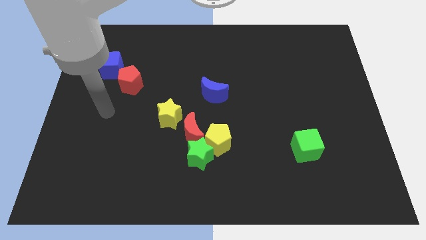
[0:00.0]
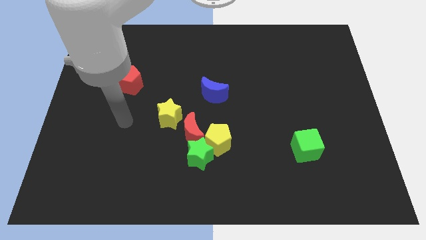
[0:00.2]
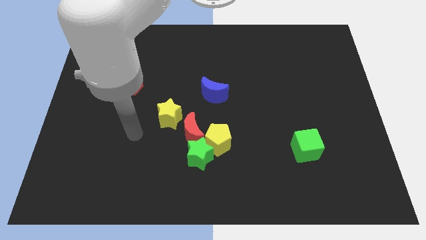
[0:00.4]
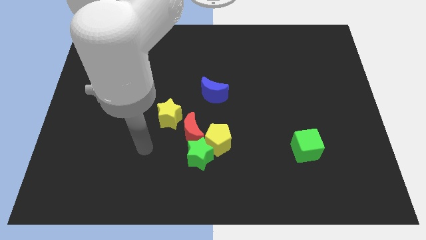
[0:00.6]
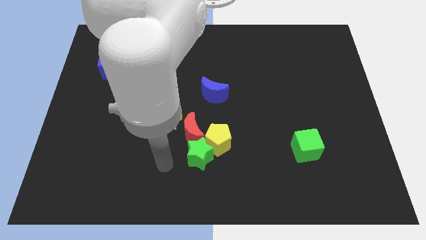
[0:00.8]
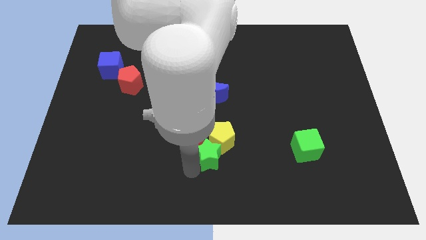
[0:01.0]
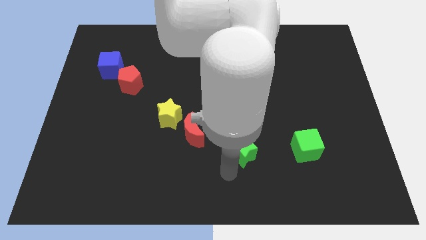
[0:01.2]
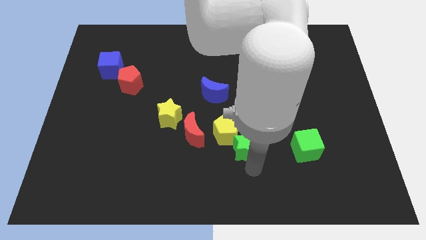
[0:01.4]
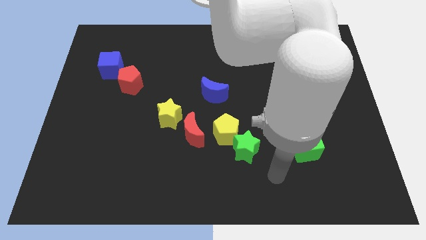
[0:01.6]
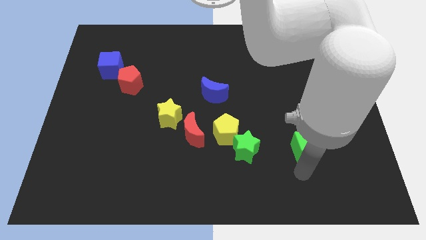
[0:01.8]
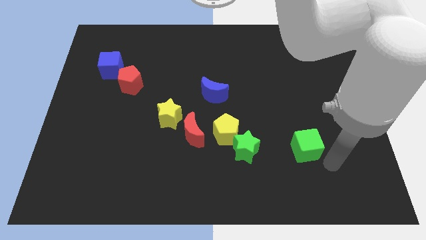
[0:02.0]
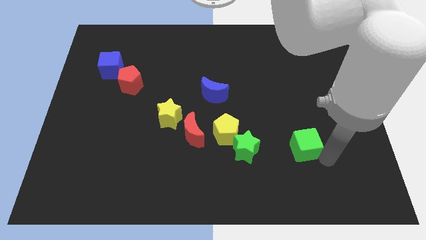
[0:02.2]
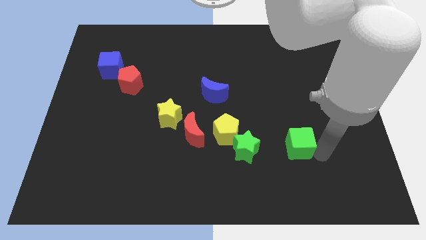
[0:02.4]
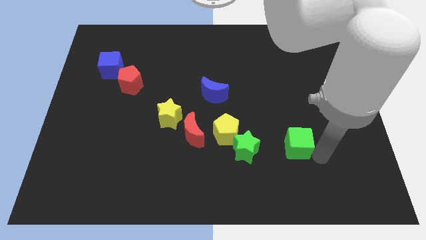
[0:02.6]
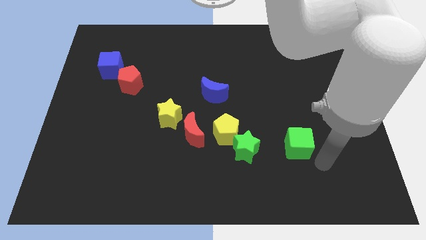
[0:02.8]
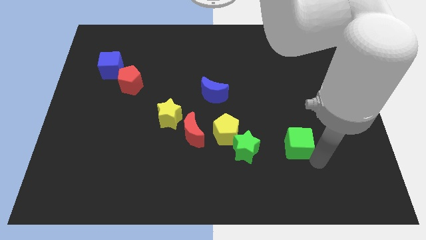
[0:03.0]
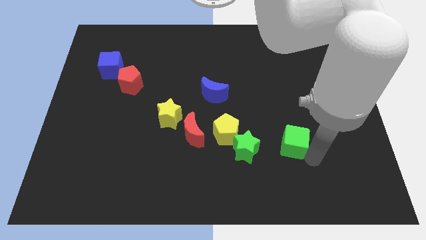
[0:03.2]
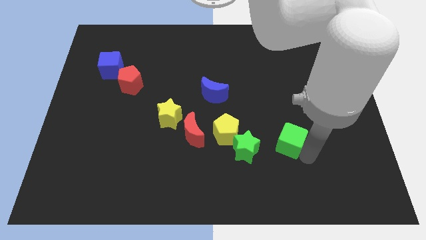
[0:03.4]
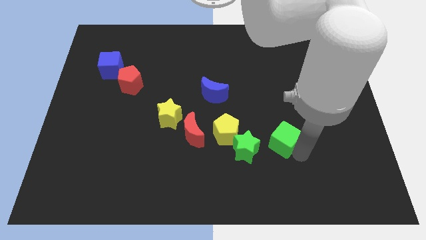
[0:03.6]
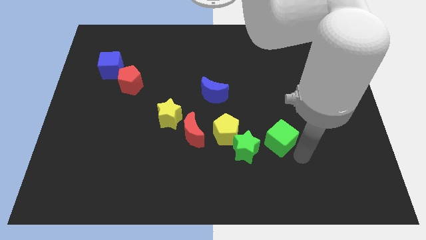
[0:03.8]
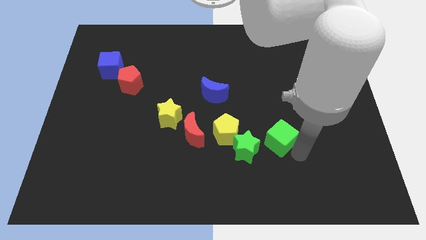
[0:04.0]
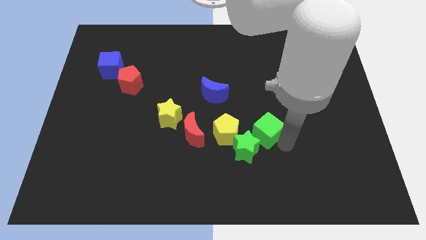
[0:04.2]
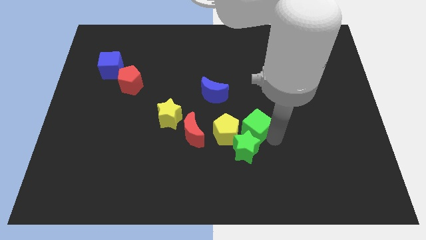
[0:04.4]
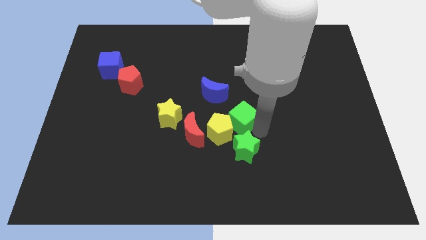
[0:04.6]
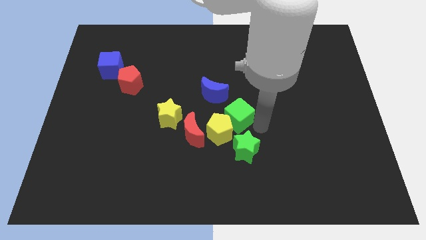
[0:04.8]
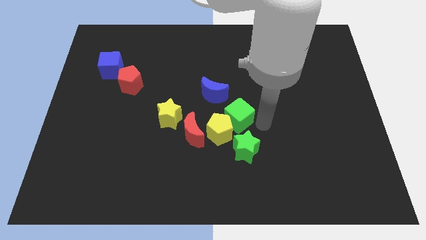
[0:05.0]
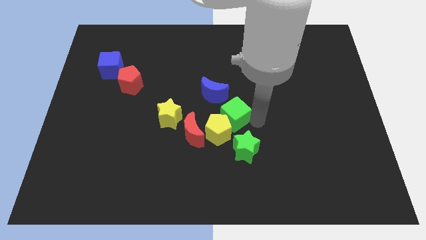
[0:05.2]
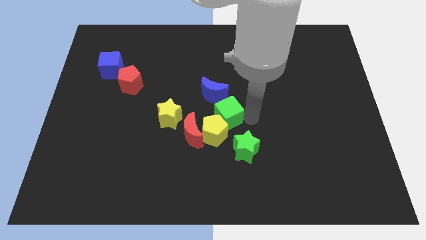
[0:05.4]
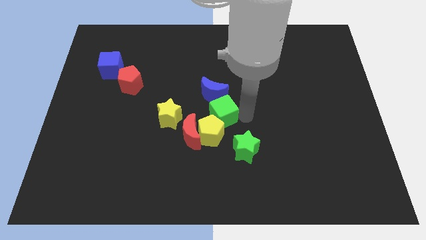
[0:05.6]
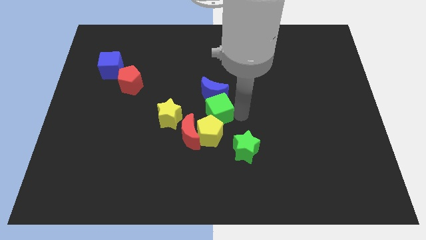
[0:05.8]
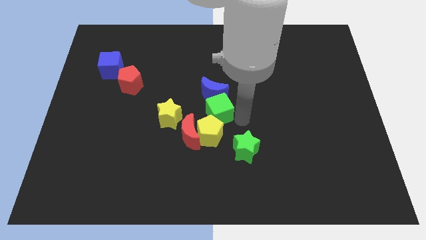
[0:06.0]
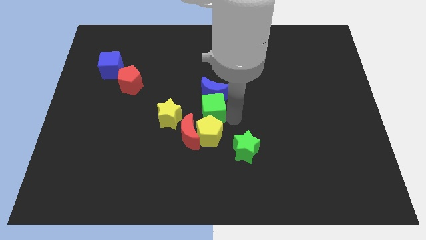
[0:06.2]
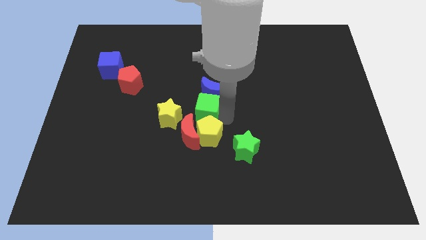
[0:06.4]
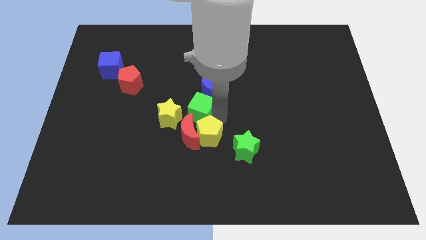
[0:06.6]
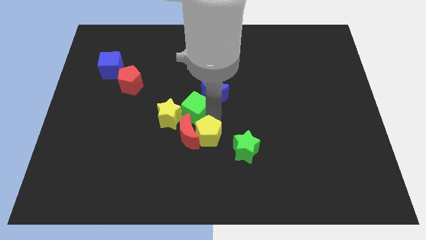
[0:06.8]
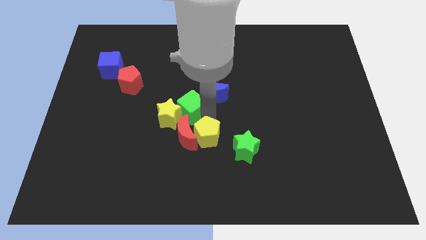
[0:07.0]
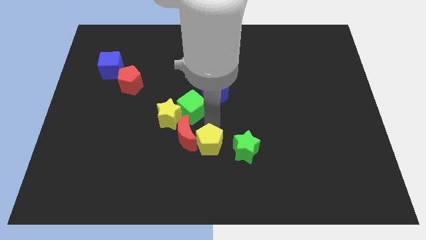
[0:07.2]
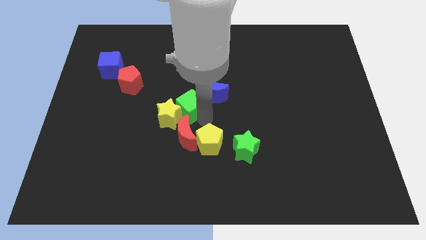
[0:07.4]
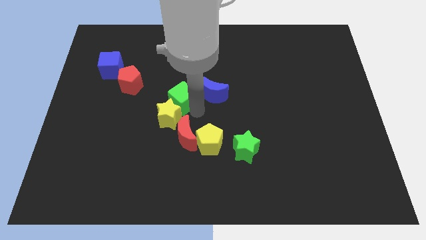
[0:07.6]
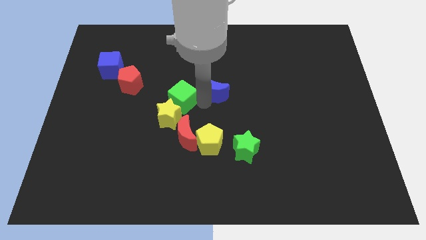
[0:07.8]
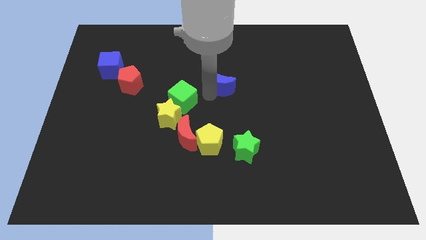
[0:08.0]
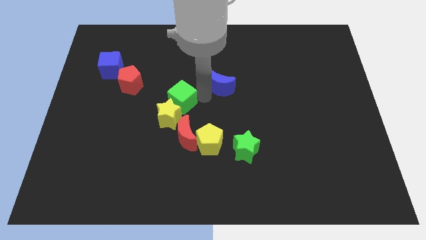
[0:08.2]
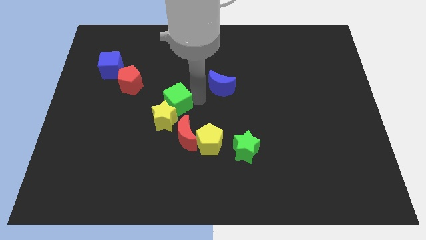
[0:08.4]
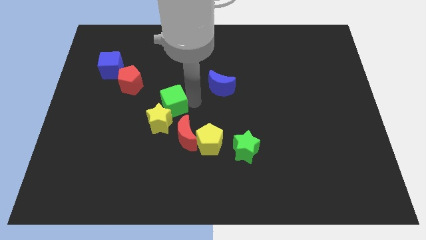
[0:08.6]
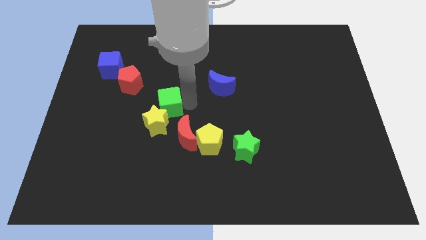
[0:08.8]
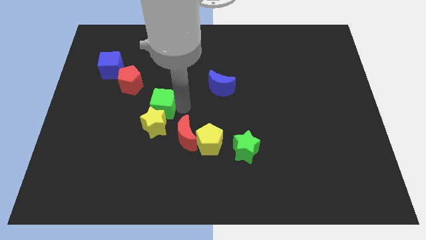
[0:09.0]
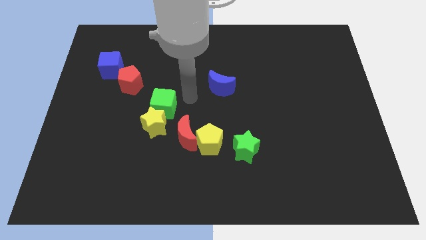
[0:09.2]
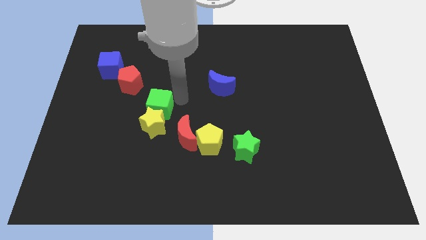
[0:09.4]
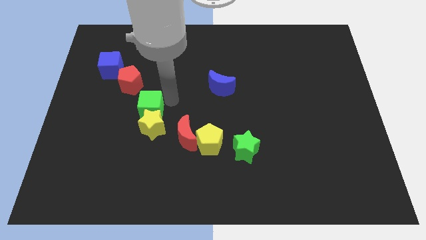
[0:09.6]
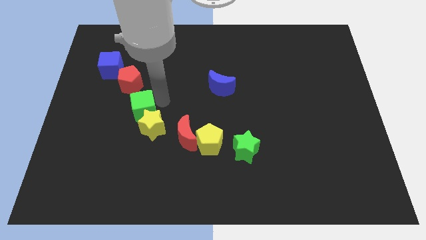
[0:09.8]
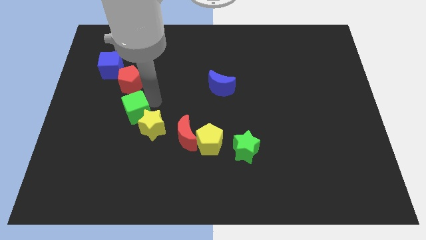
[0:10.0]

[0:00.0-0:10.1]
slide the green cube just left of the yellow star

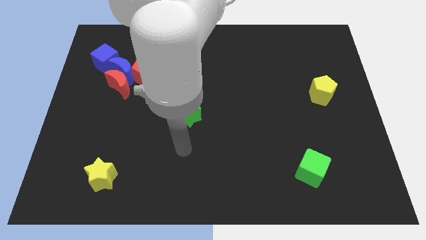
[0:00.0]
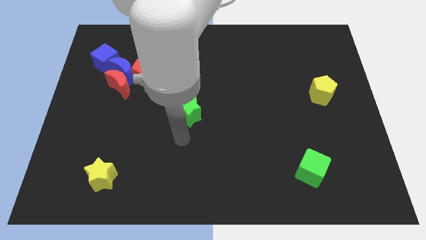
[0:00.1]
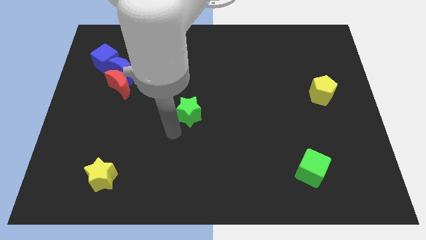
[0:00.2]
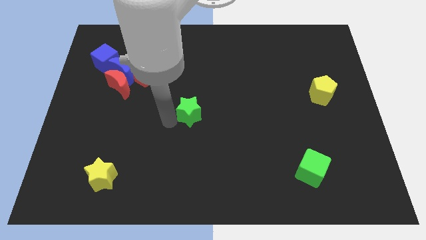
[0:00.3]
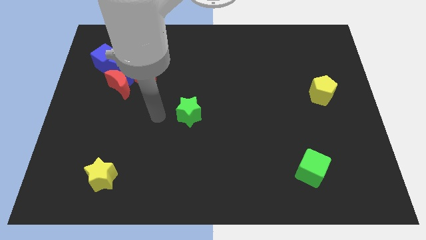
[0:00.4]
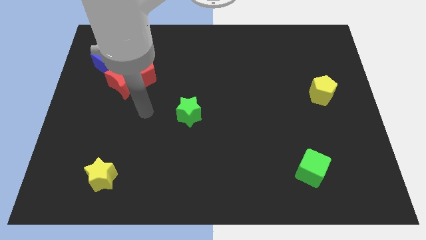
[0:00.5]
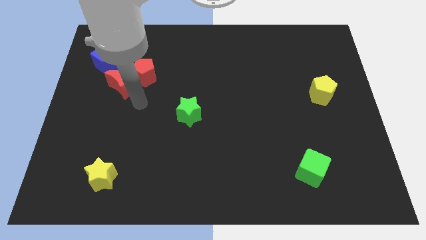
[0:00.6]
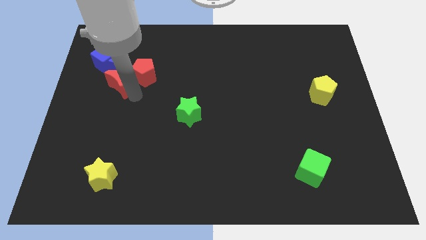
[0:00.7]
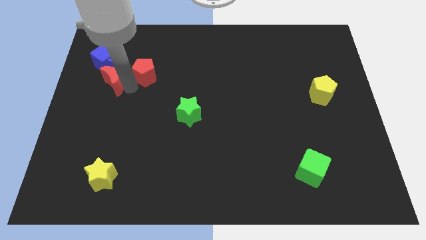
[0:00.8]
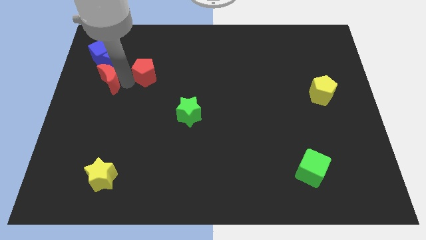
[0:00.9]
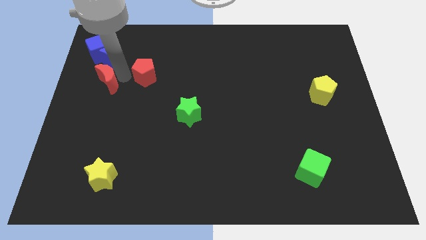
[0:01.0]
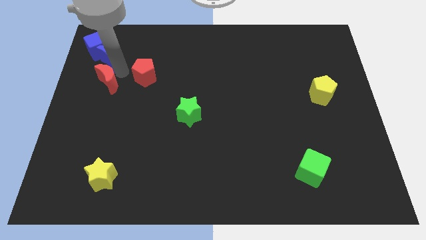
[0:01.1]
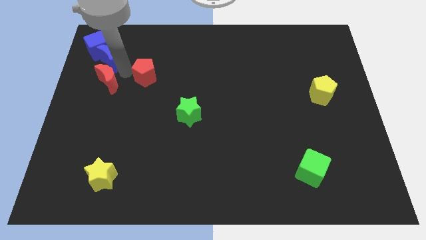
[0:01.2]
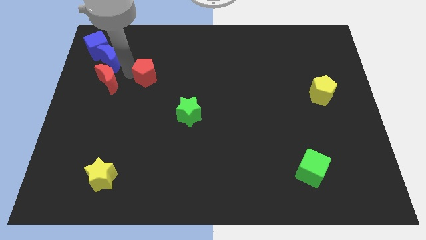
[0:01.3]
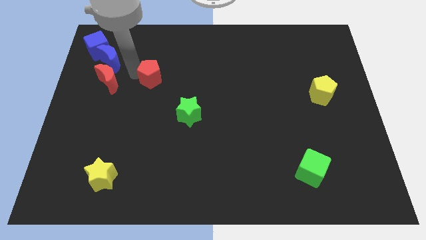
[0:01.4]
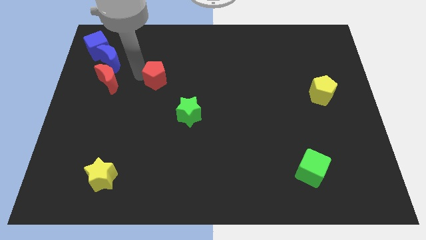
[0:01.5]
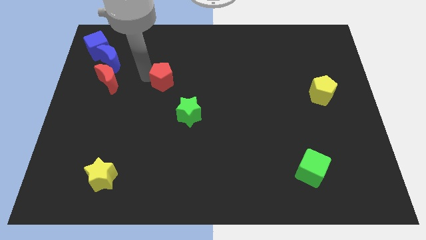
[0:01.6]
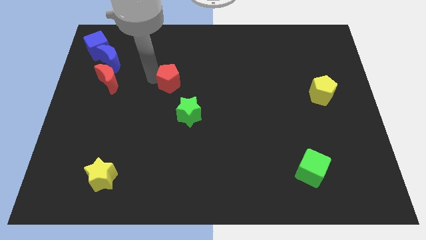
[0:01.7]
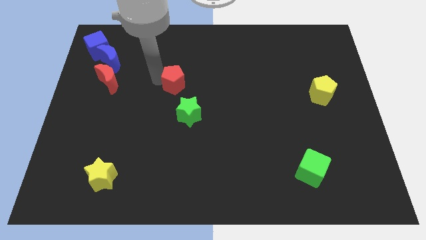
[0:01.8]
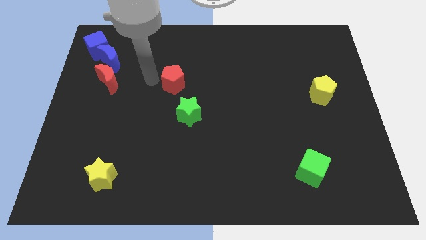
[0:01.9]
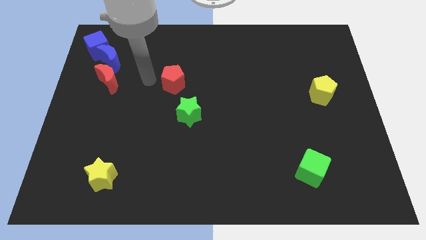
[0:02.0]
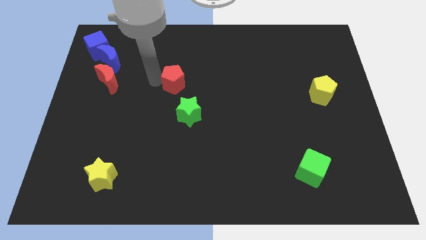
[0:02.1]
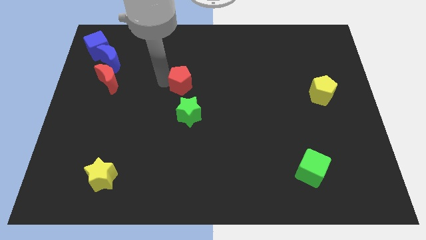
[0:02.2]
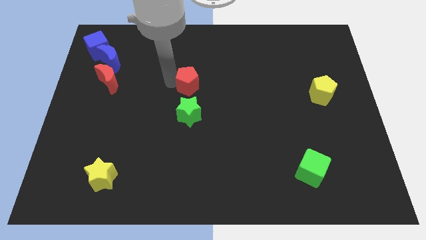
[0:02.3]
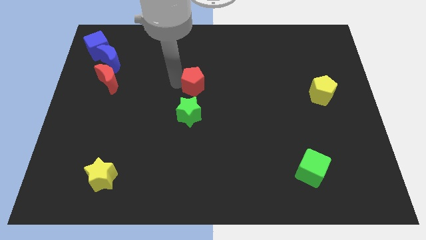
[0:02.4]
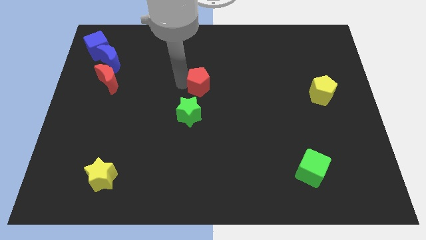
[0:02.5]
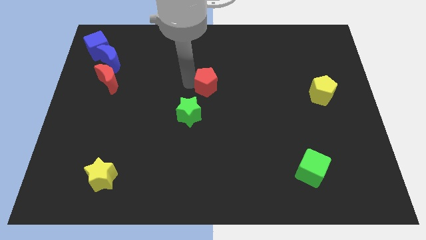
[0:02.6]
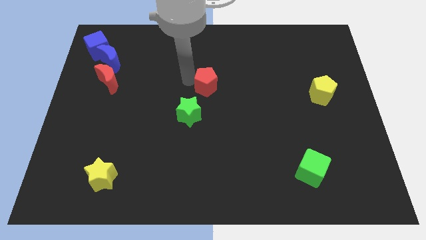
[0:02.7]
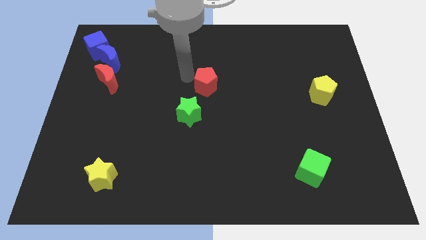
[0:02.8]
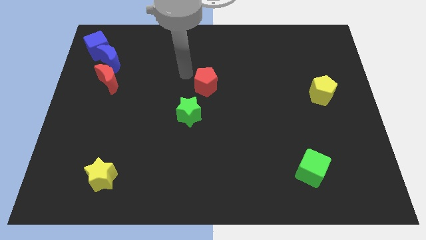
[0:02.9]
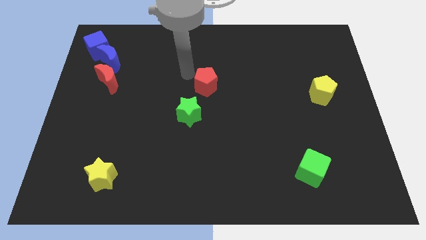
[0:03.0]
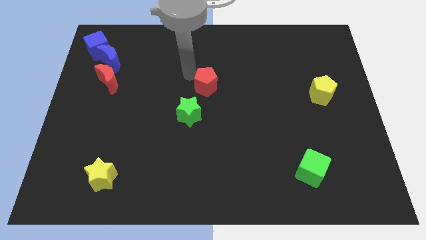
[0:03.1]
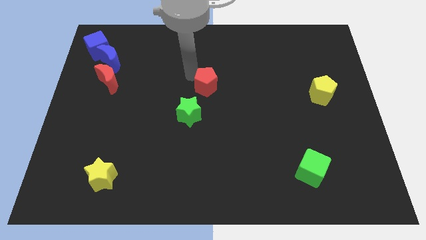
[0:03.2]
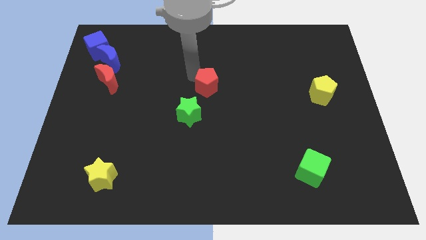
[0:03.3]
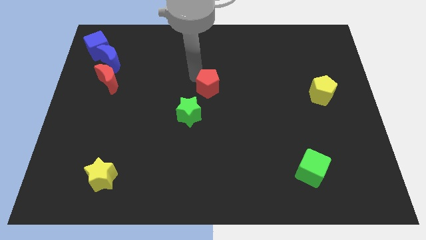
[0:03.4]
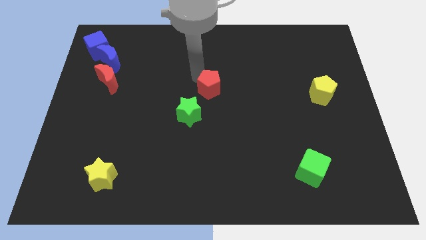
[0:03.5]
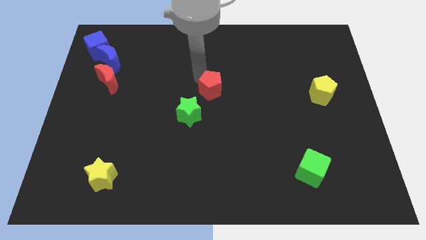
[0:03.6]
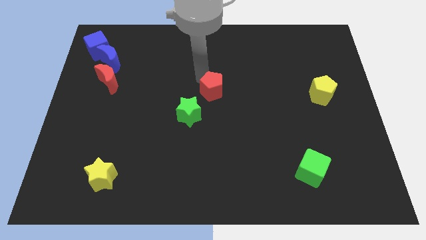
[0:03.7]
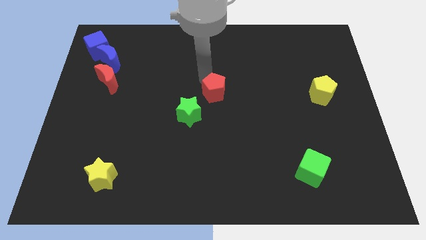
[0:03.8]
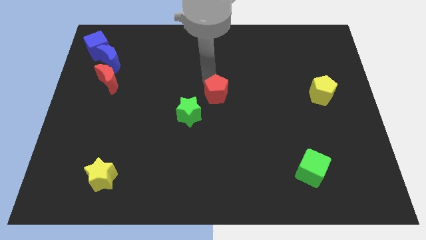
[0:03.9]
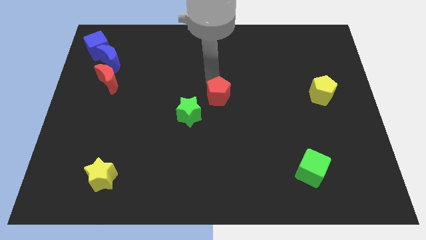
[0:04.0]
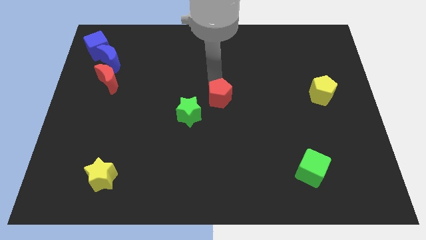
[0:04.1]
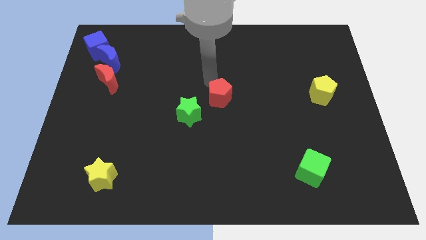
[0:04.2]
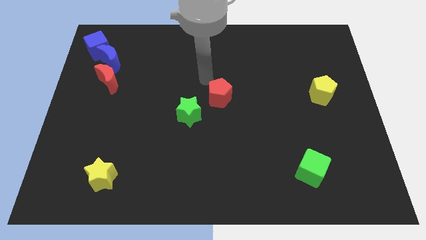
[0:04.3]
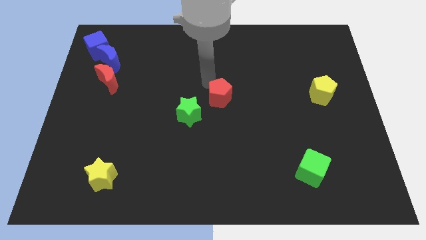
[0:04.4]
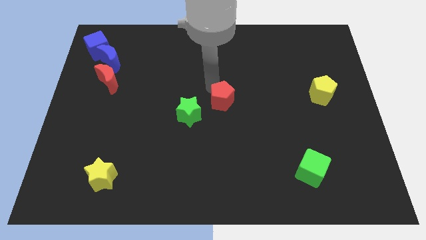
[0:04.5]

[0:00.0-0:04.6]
slide the red pentagon right of the green star
